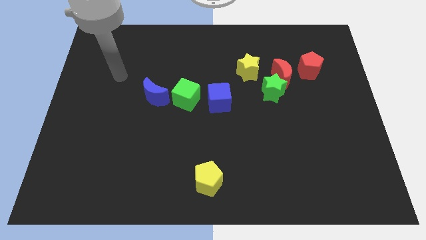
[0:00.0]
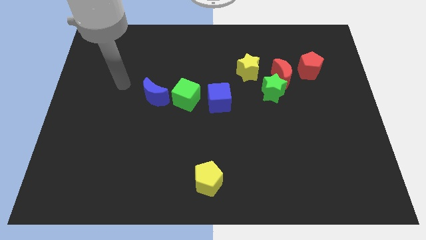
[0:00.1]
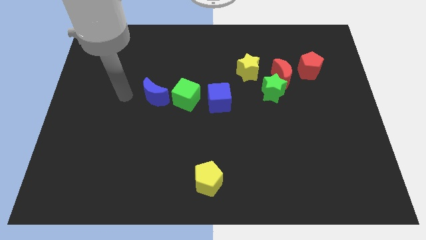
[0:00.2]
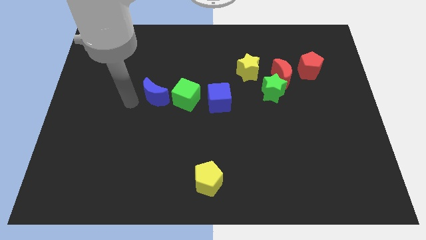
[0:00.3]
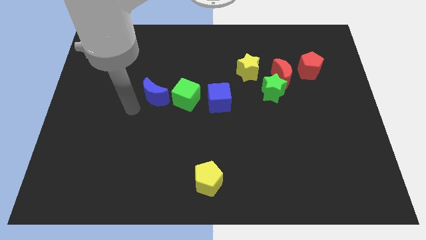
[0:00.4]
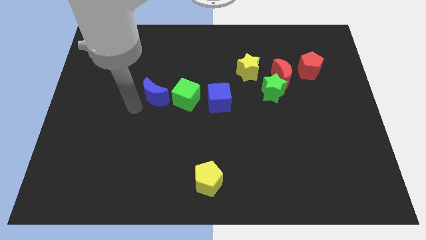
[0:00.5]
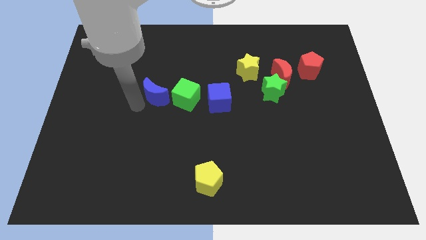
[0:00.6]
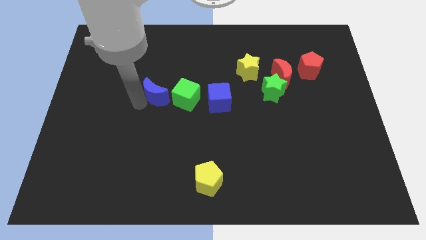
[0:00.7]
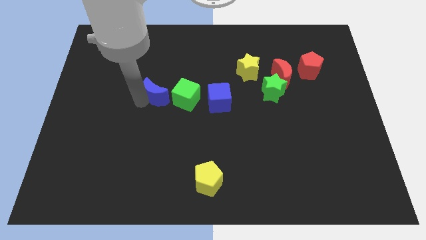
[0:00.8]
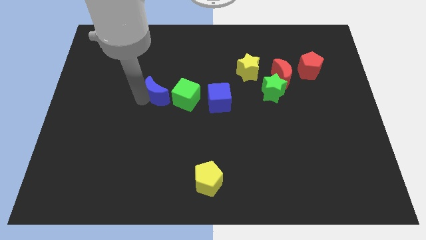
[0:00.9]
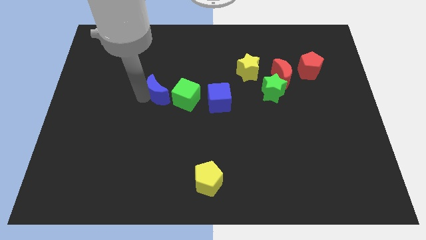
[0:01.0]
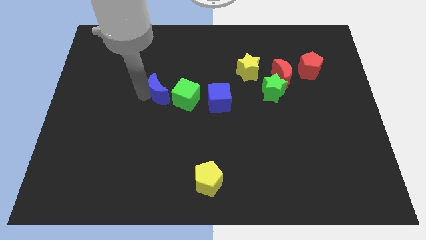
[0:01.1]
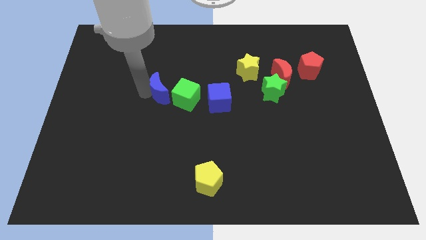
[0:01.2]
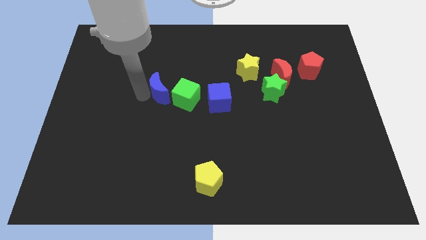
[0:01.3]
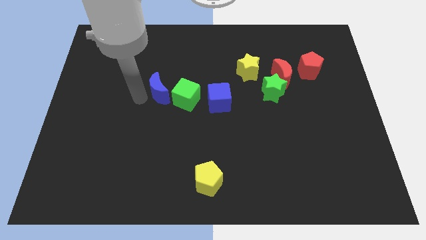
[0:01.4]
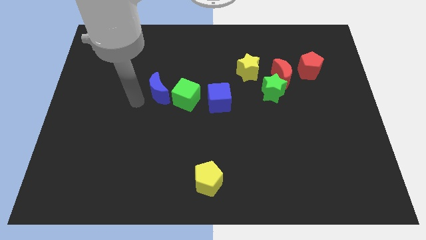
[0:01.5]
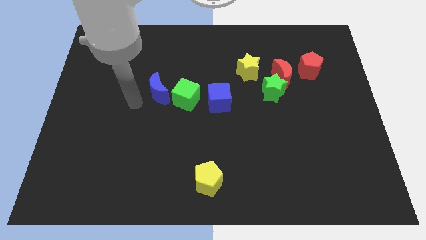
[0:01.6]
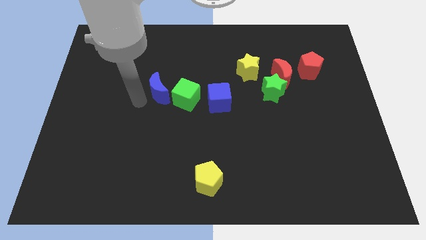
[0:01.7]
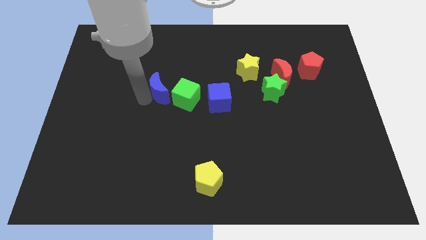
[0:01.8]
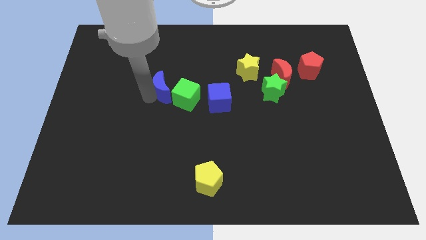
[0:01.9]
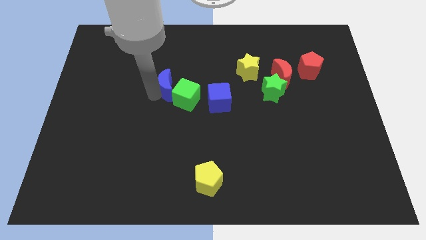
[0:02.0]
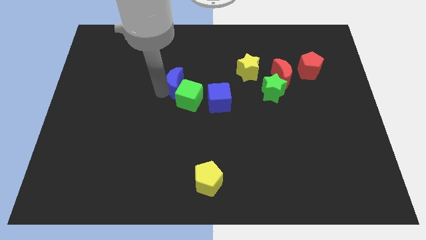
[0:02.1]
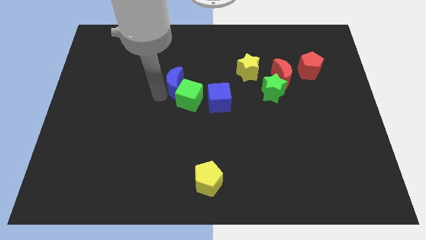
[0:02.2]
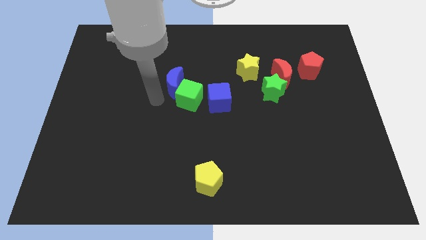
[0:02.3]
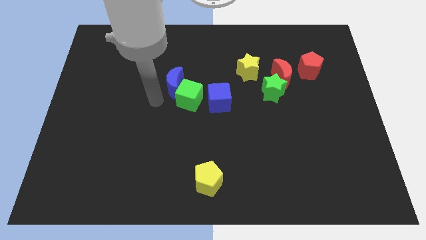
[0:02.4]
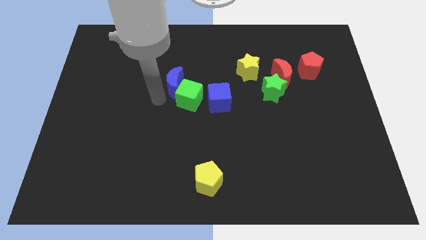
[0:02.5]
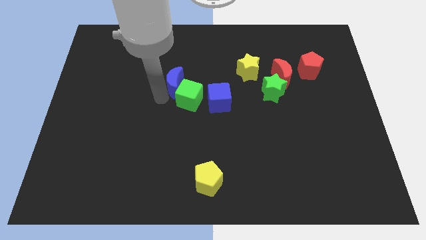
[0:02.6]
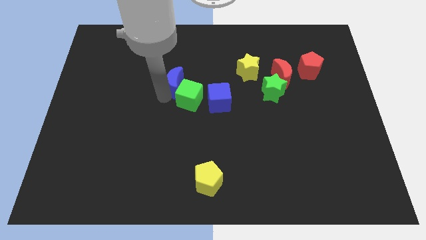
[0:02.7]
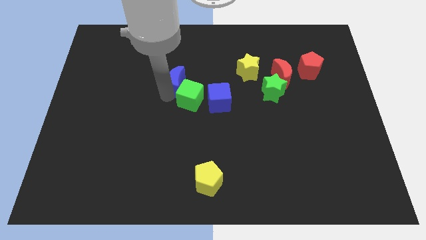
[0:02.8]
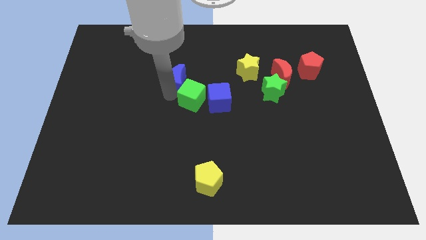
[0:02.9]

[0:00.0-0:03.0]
move the blue moon diagonally up and to the right a little bit

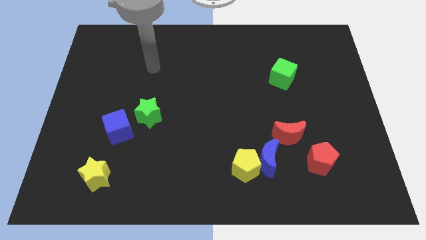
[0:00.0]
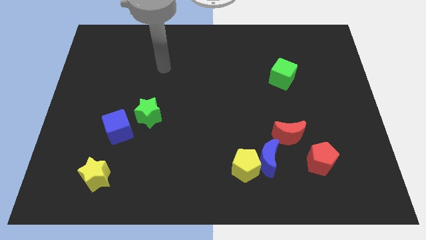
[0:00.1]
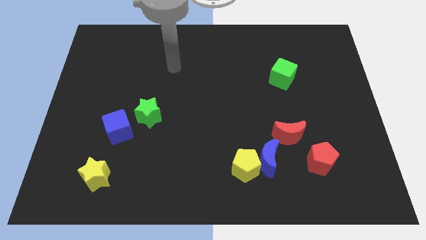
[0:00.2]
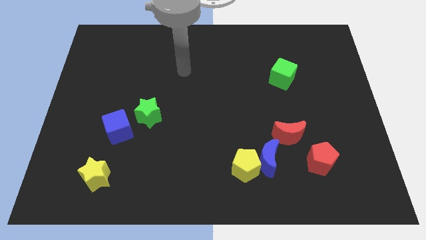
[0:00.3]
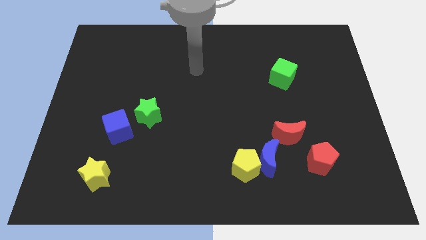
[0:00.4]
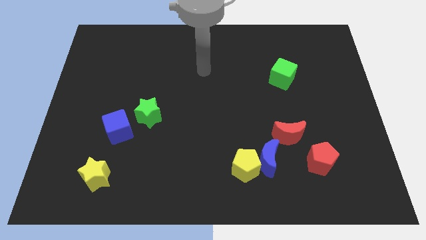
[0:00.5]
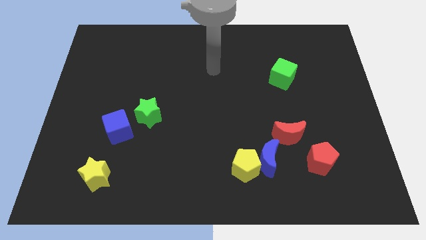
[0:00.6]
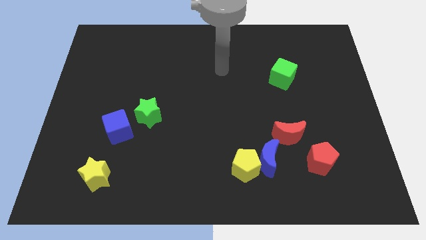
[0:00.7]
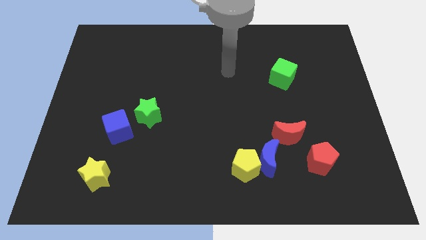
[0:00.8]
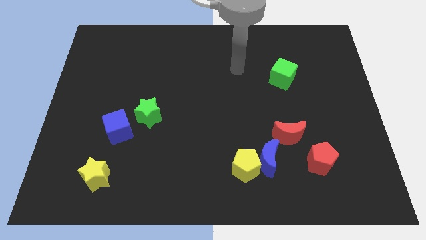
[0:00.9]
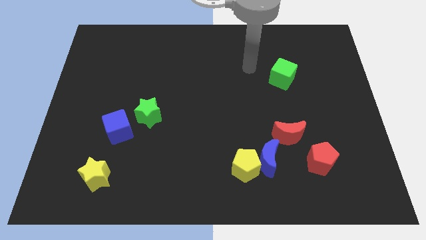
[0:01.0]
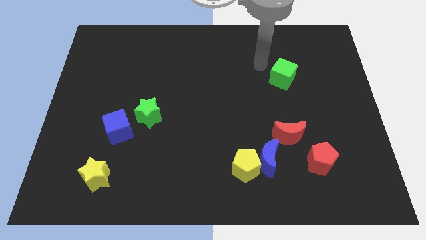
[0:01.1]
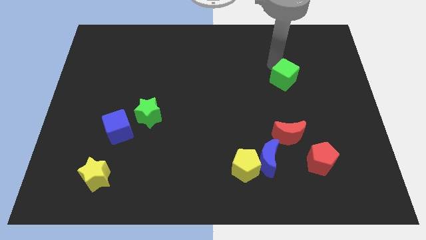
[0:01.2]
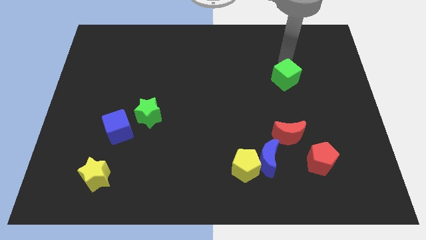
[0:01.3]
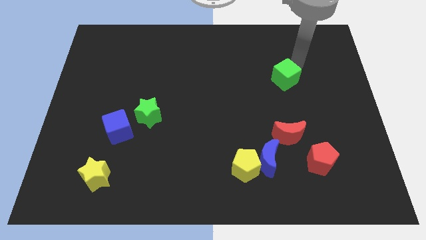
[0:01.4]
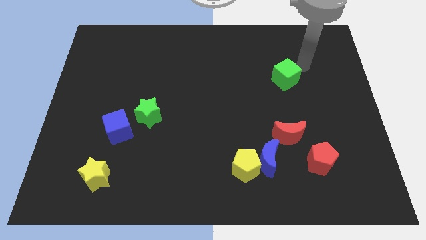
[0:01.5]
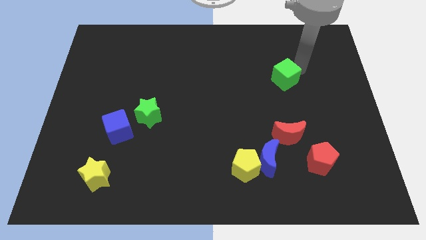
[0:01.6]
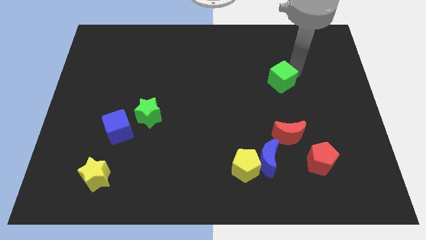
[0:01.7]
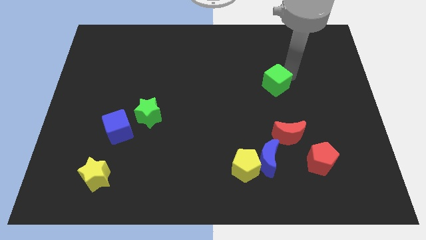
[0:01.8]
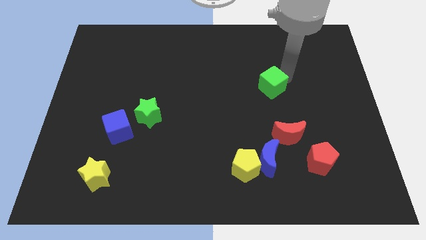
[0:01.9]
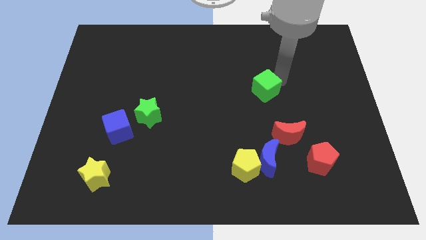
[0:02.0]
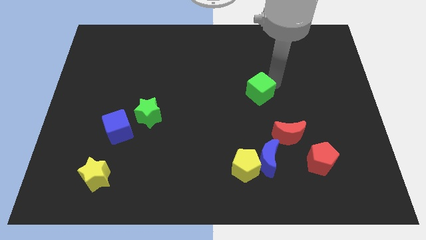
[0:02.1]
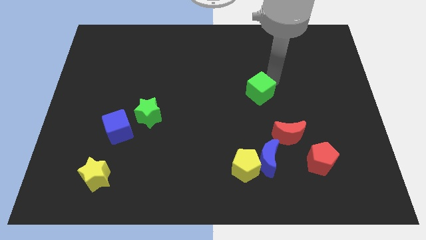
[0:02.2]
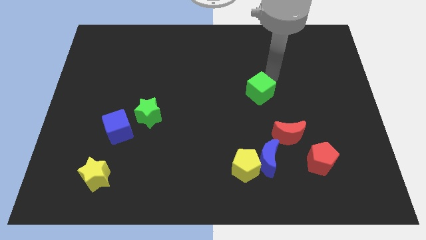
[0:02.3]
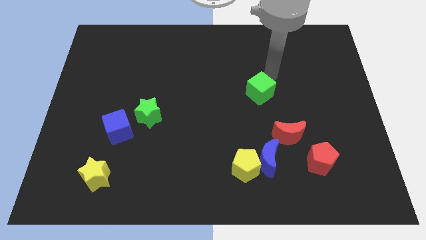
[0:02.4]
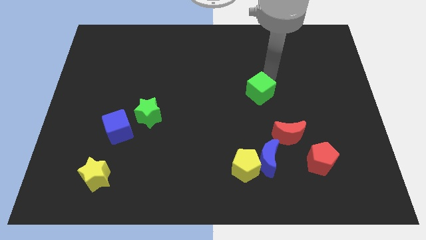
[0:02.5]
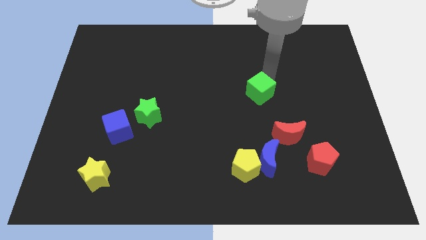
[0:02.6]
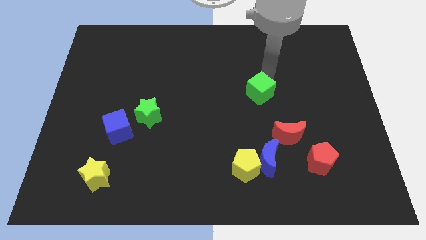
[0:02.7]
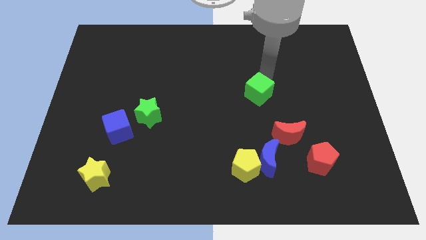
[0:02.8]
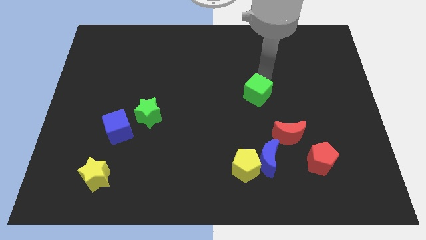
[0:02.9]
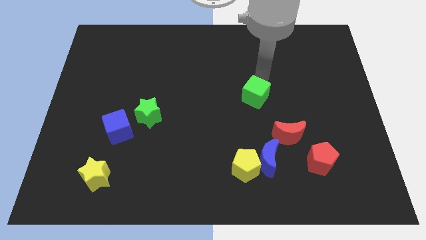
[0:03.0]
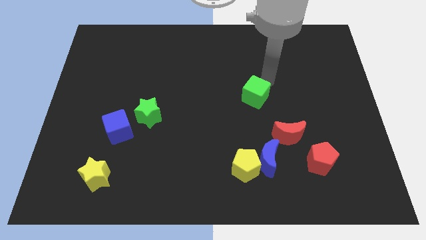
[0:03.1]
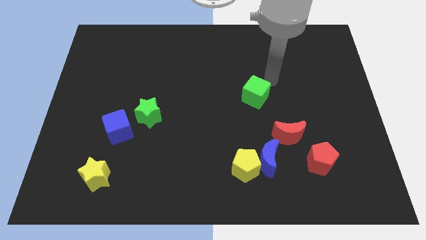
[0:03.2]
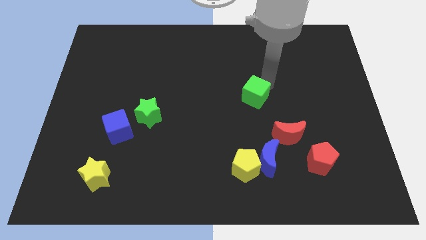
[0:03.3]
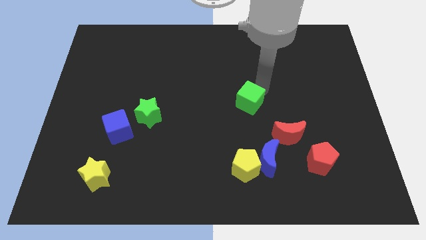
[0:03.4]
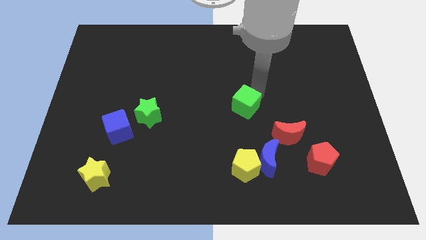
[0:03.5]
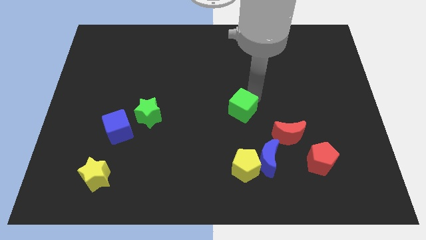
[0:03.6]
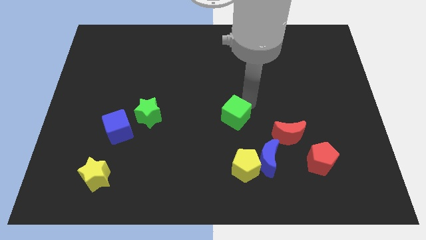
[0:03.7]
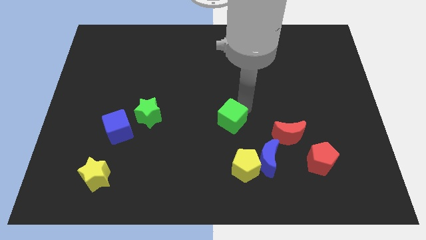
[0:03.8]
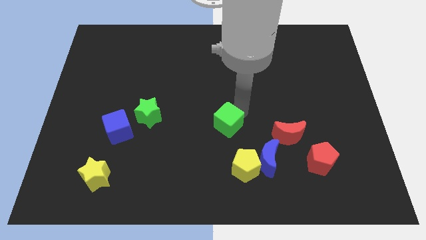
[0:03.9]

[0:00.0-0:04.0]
push the green cube diagonally downwards and left

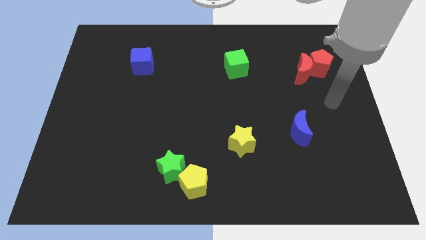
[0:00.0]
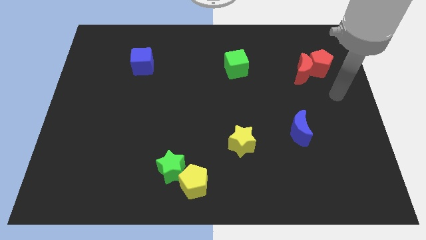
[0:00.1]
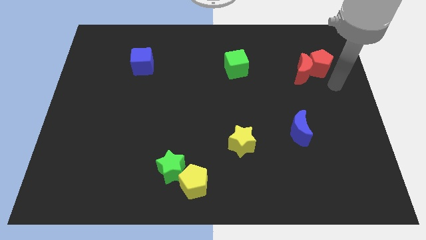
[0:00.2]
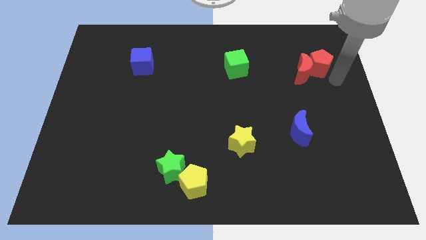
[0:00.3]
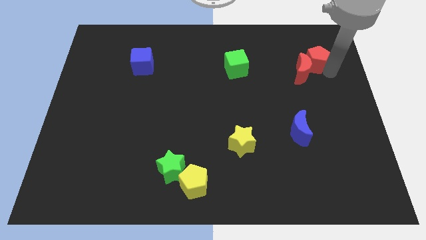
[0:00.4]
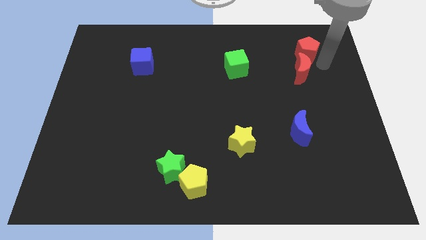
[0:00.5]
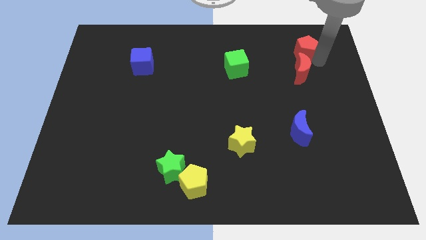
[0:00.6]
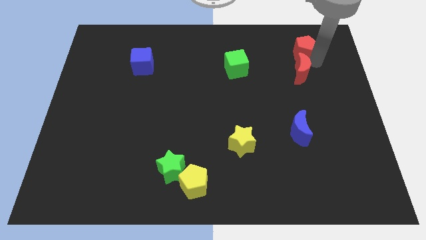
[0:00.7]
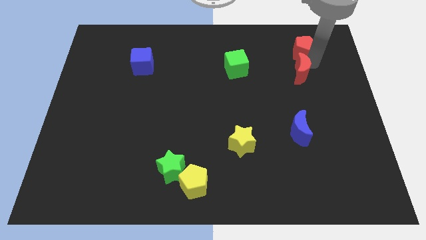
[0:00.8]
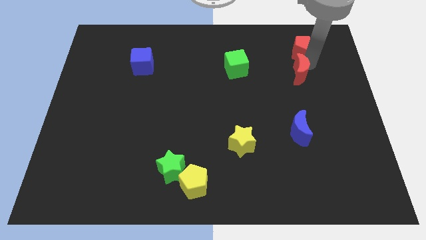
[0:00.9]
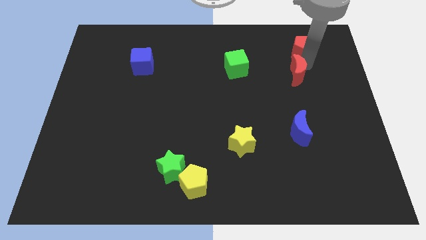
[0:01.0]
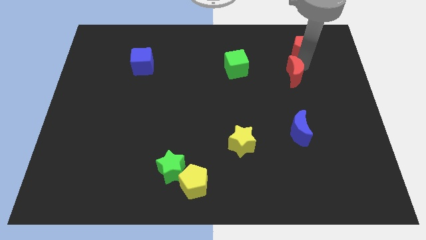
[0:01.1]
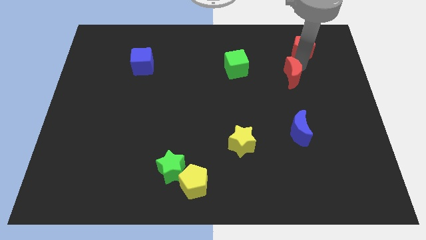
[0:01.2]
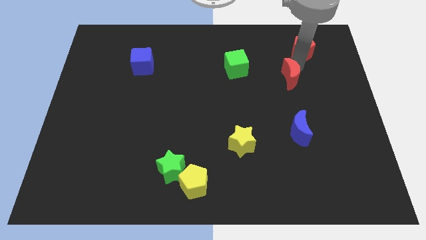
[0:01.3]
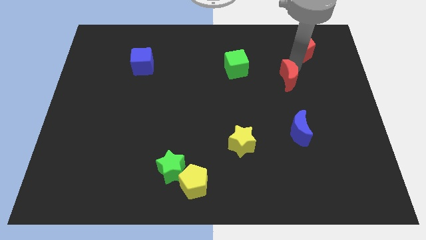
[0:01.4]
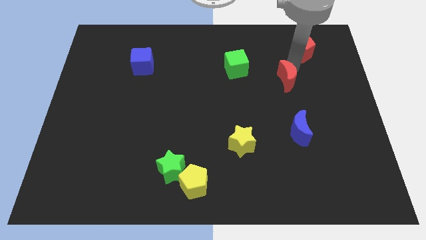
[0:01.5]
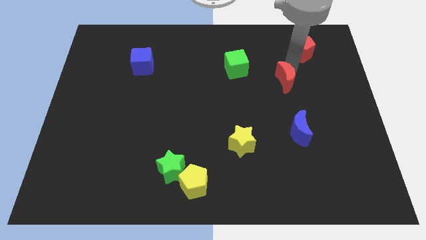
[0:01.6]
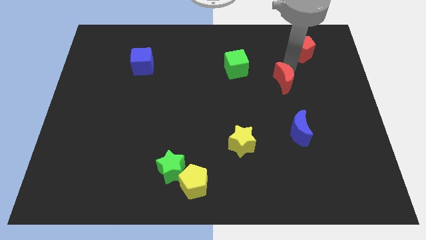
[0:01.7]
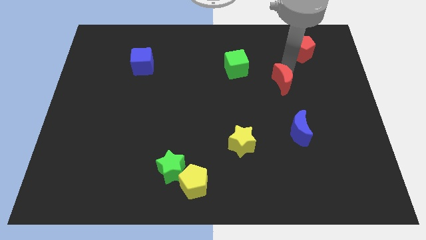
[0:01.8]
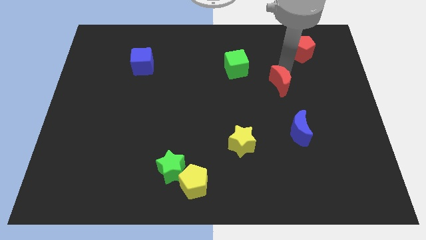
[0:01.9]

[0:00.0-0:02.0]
slightly move the red moon downwards and then to the left
